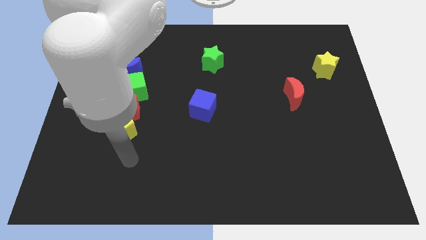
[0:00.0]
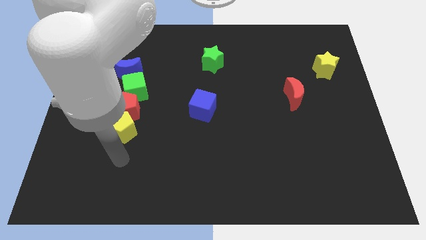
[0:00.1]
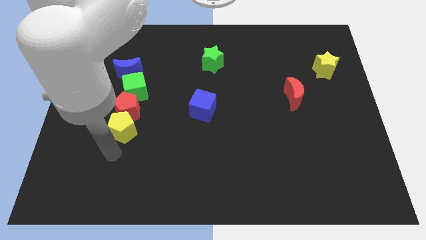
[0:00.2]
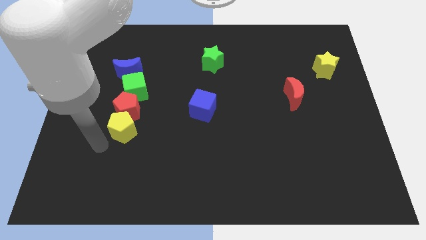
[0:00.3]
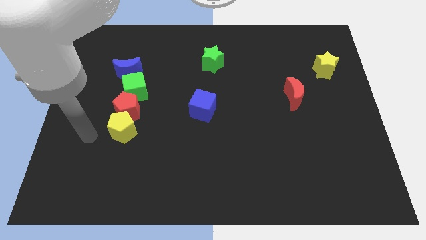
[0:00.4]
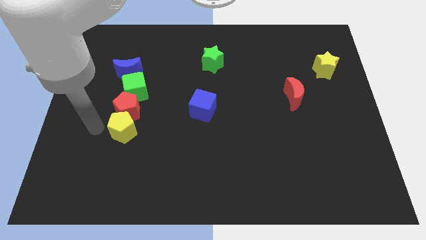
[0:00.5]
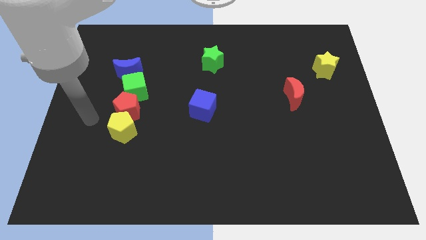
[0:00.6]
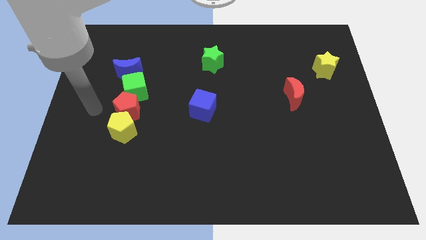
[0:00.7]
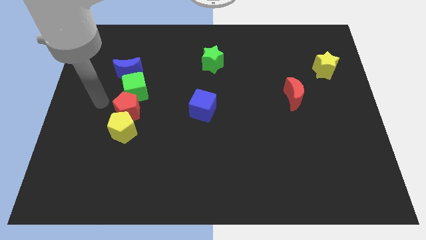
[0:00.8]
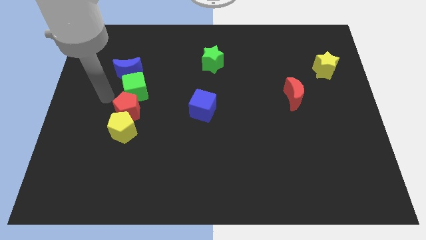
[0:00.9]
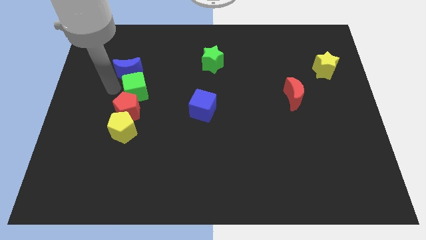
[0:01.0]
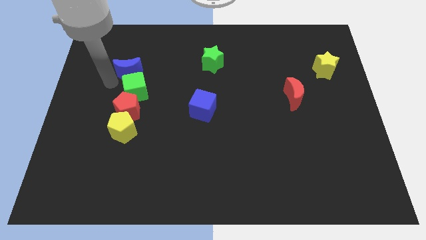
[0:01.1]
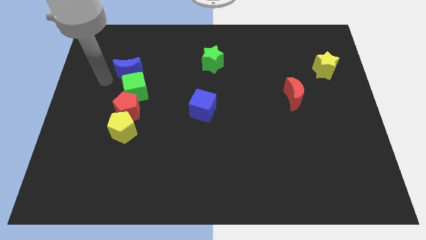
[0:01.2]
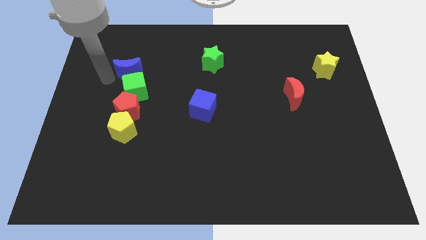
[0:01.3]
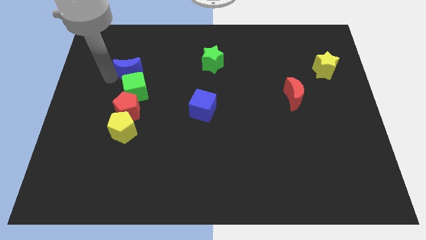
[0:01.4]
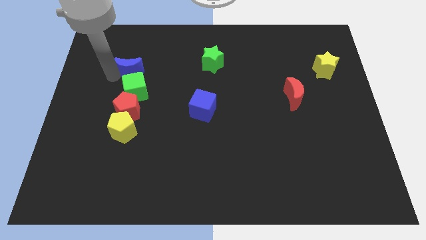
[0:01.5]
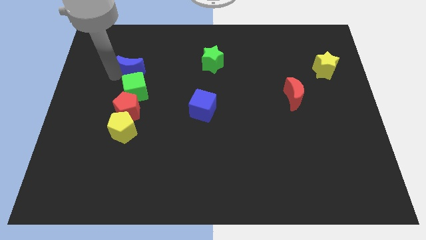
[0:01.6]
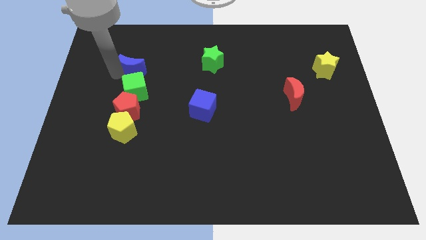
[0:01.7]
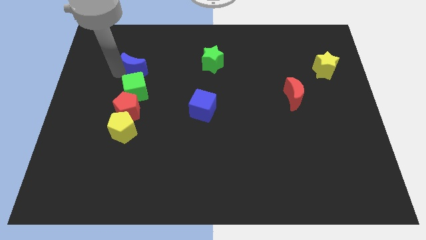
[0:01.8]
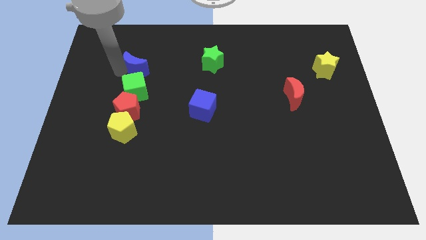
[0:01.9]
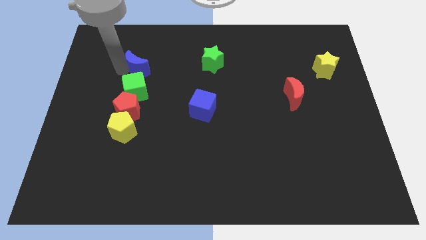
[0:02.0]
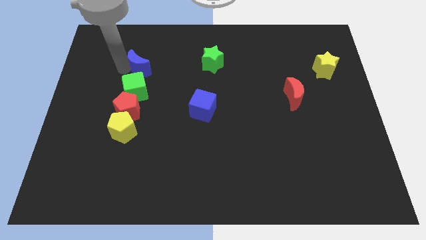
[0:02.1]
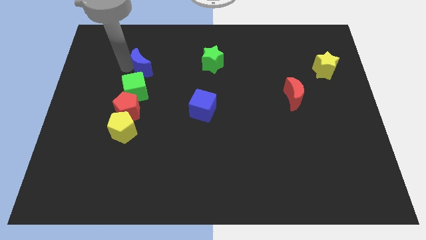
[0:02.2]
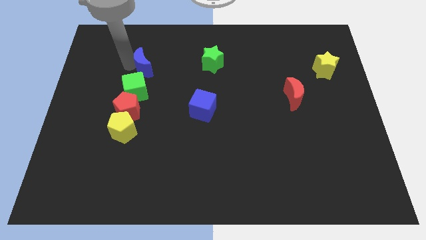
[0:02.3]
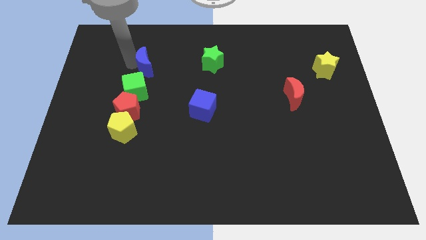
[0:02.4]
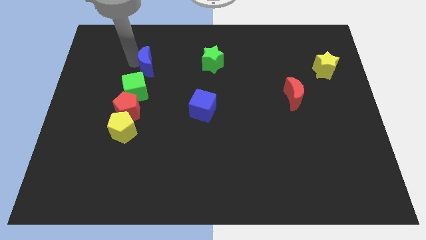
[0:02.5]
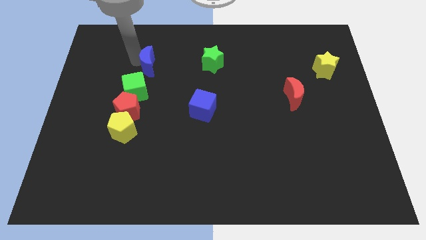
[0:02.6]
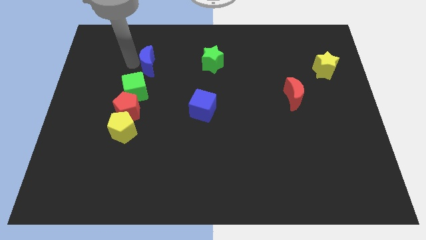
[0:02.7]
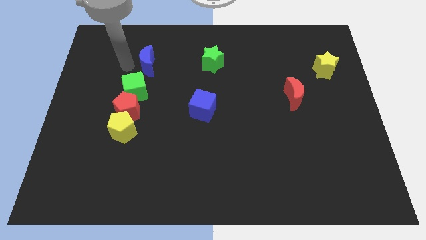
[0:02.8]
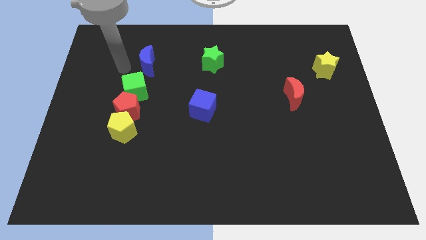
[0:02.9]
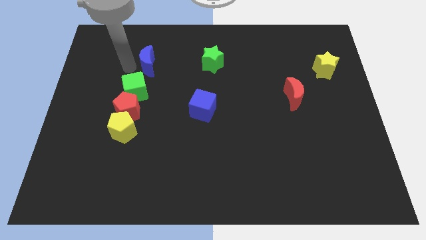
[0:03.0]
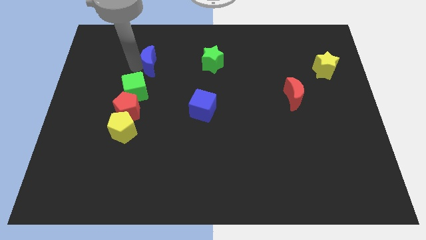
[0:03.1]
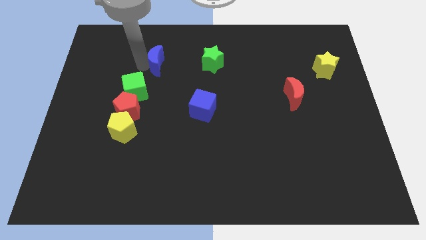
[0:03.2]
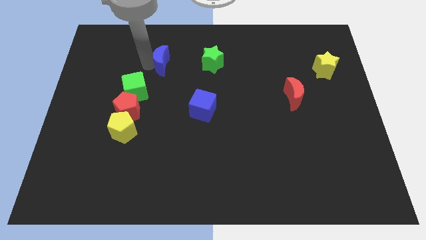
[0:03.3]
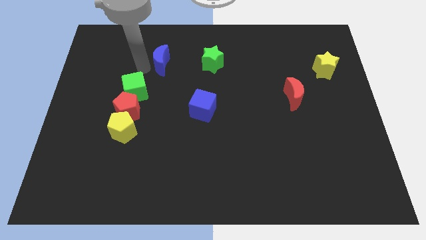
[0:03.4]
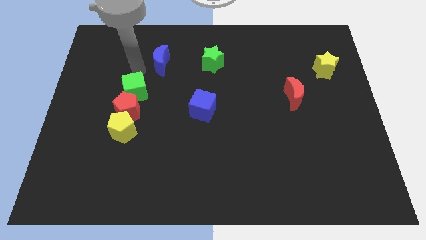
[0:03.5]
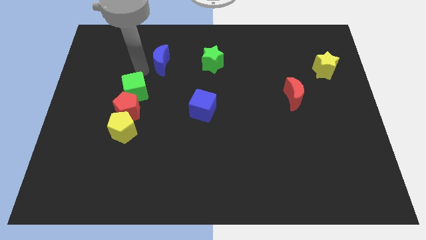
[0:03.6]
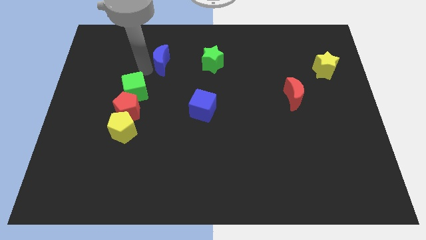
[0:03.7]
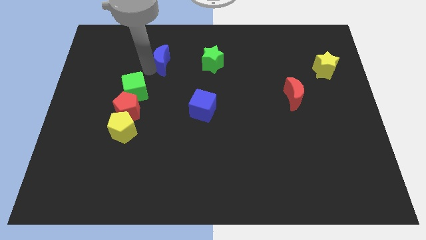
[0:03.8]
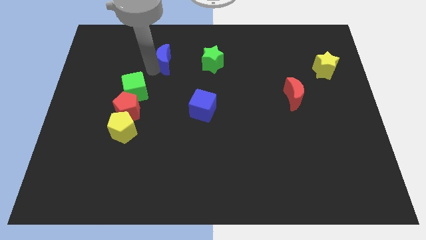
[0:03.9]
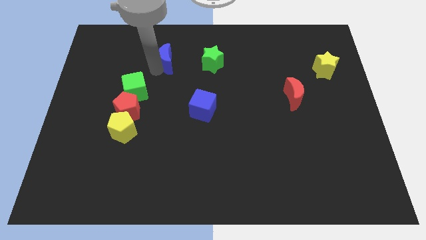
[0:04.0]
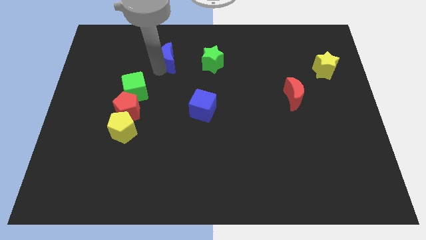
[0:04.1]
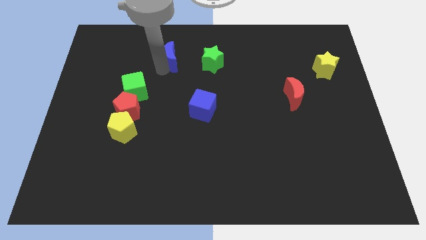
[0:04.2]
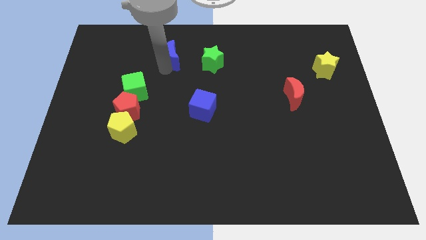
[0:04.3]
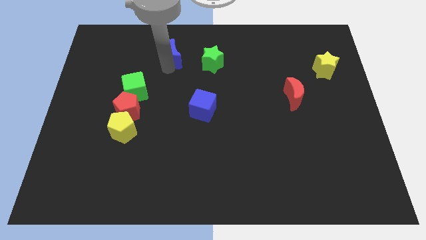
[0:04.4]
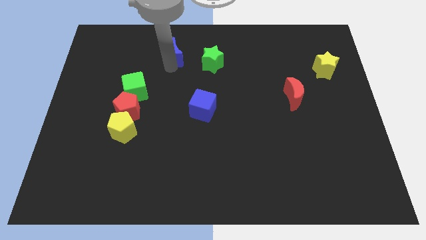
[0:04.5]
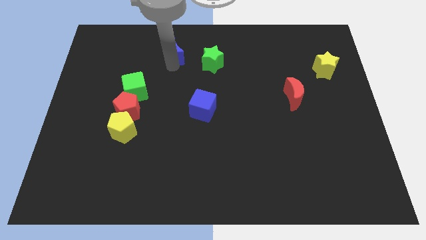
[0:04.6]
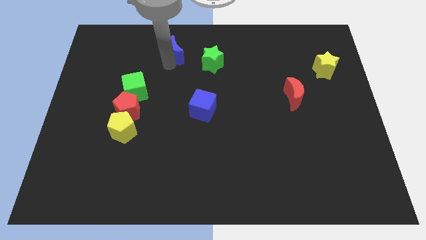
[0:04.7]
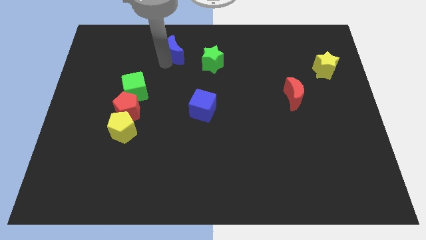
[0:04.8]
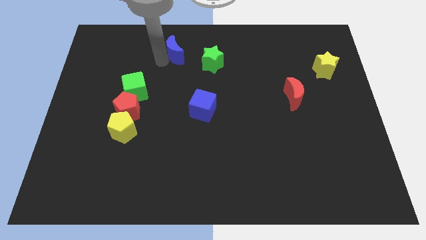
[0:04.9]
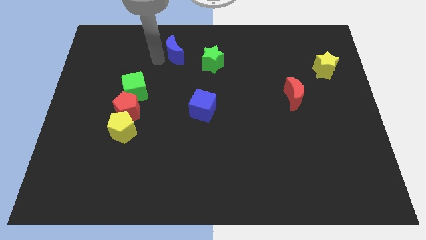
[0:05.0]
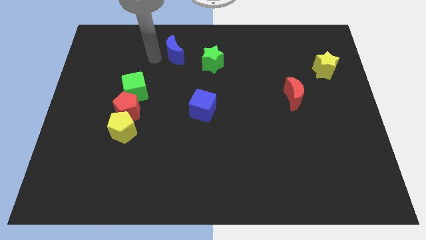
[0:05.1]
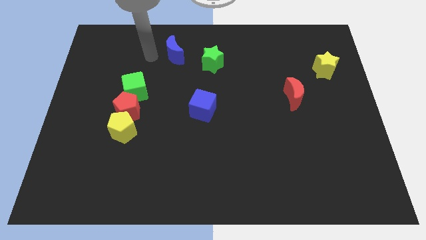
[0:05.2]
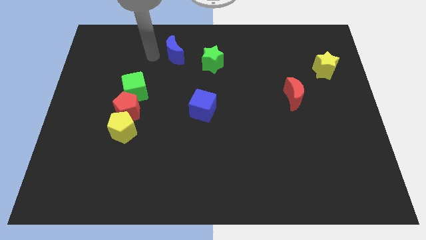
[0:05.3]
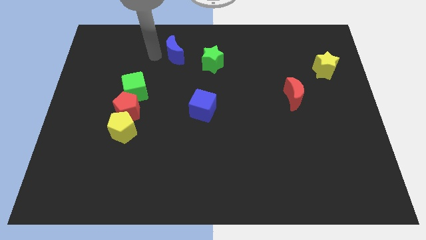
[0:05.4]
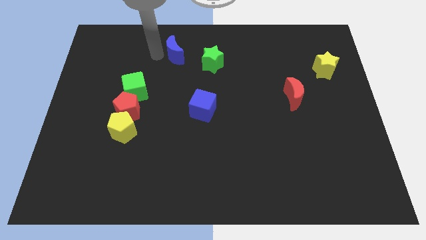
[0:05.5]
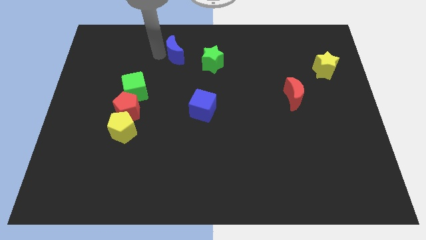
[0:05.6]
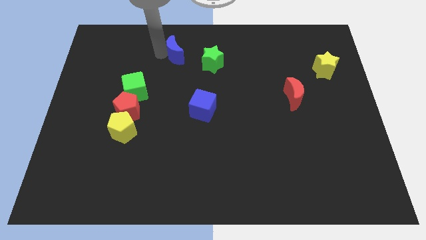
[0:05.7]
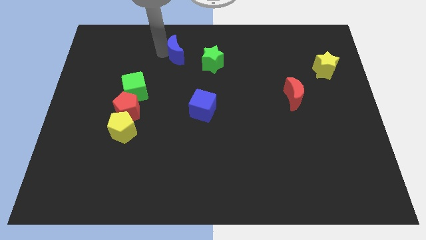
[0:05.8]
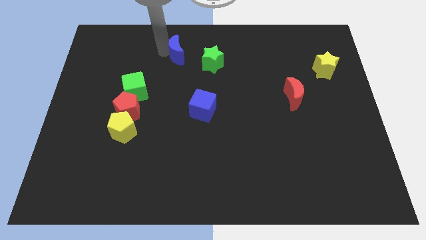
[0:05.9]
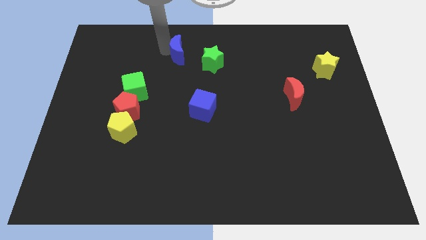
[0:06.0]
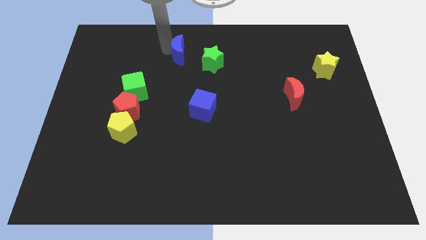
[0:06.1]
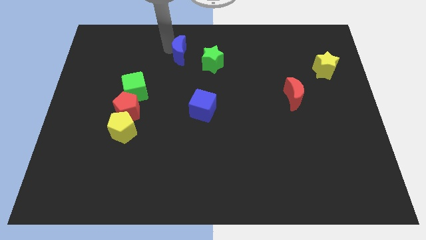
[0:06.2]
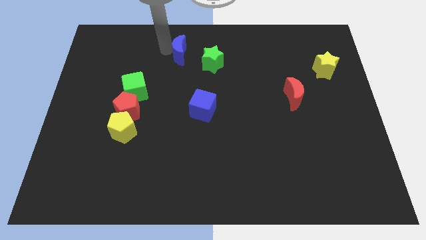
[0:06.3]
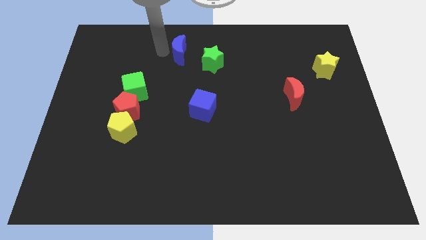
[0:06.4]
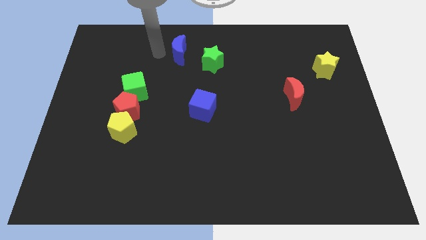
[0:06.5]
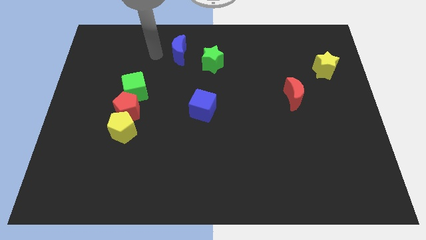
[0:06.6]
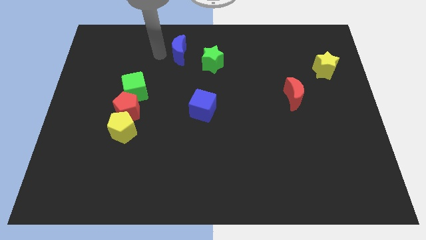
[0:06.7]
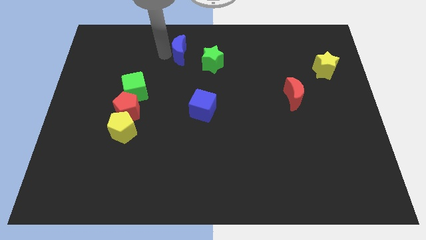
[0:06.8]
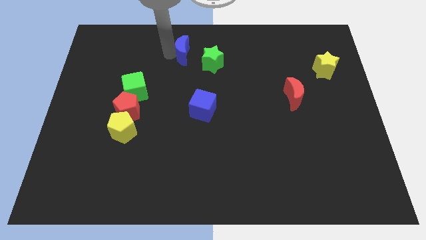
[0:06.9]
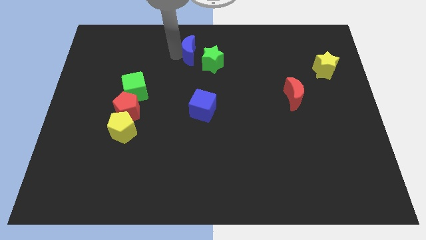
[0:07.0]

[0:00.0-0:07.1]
slide the blue moon to the top side
